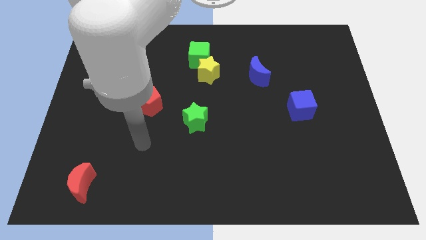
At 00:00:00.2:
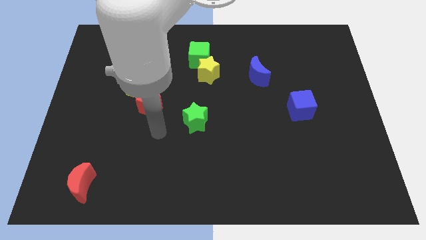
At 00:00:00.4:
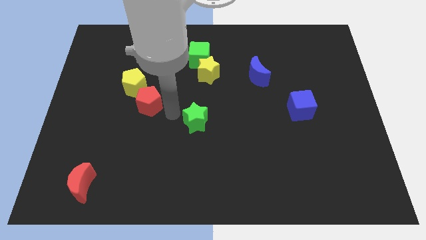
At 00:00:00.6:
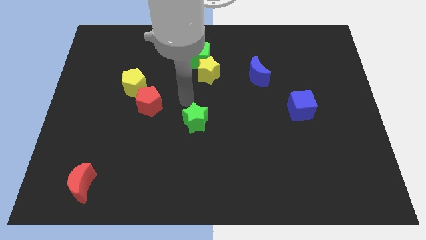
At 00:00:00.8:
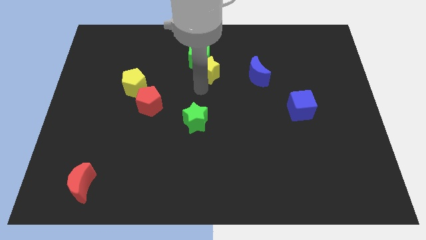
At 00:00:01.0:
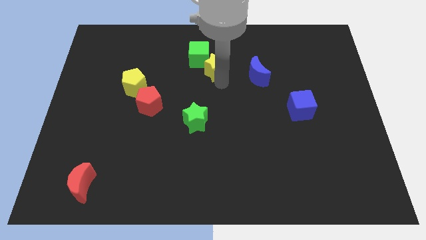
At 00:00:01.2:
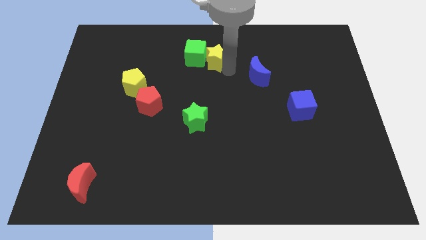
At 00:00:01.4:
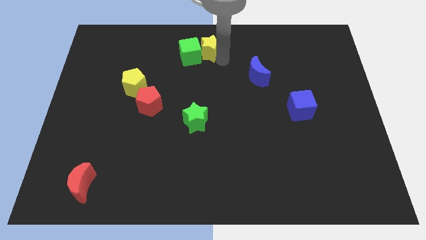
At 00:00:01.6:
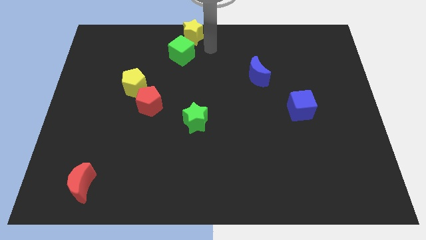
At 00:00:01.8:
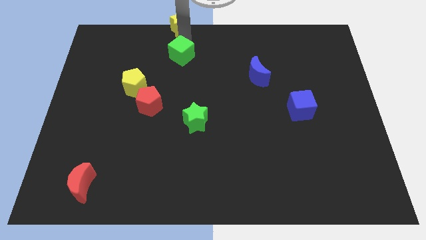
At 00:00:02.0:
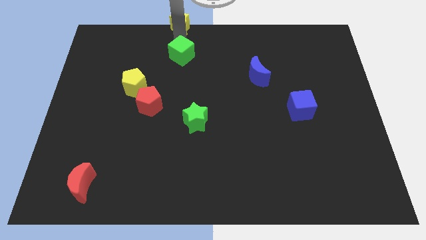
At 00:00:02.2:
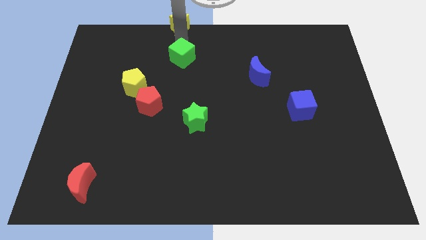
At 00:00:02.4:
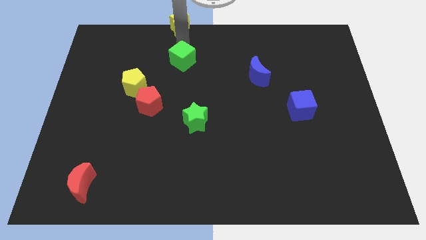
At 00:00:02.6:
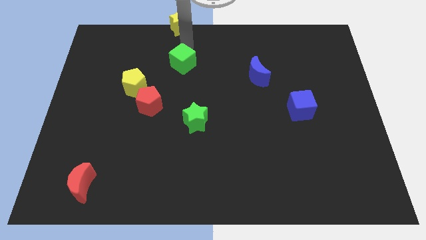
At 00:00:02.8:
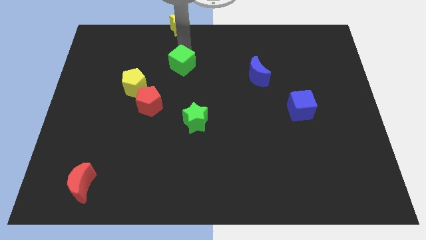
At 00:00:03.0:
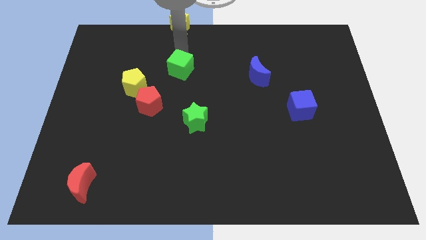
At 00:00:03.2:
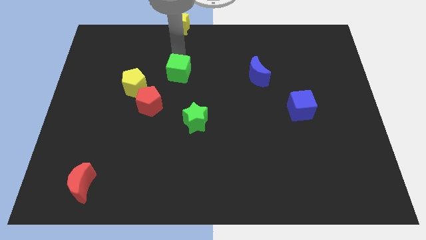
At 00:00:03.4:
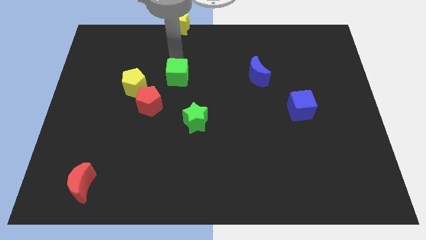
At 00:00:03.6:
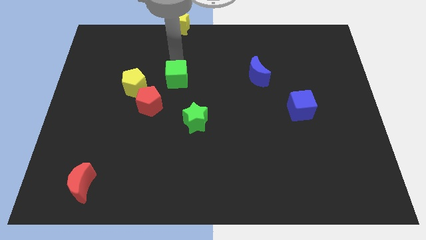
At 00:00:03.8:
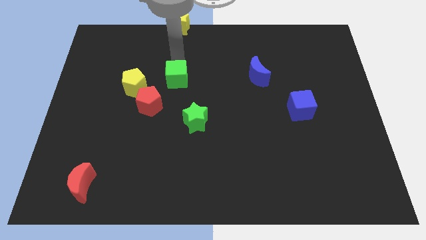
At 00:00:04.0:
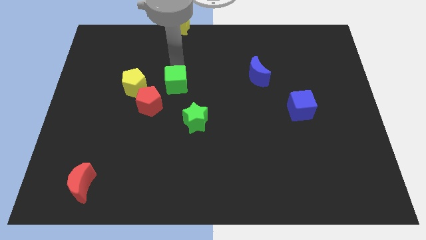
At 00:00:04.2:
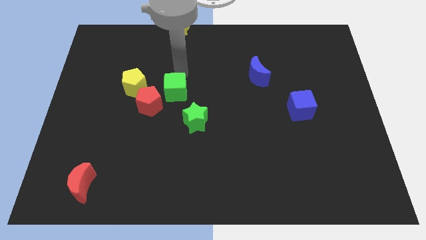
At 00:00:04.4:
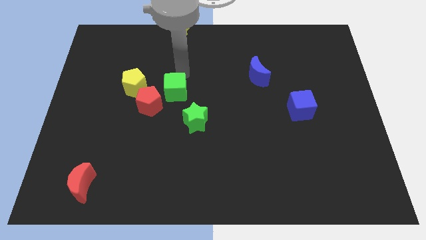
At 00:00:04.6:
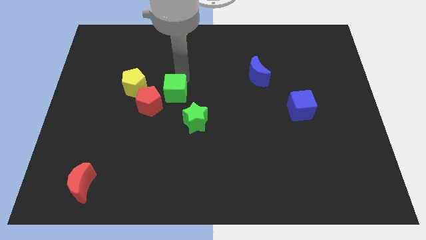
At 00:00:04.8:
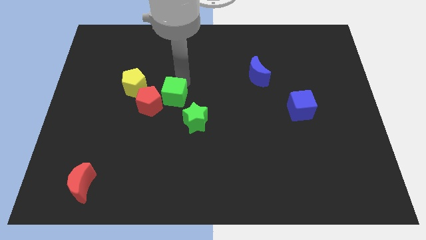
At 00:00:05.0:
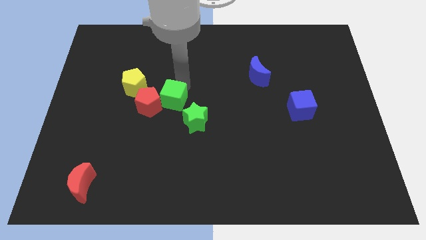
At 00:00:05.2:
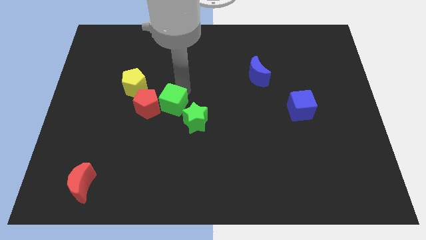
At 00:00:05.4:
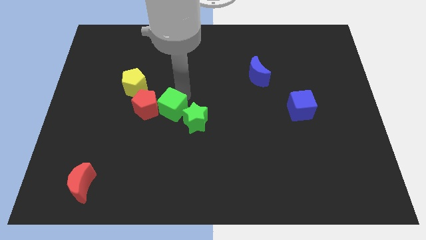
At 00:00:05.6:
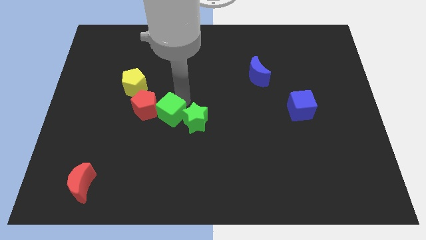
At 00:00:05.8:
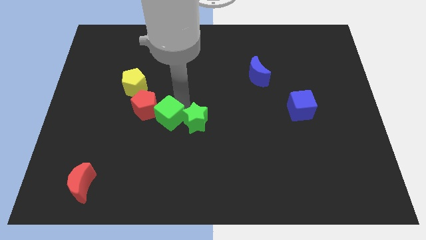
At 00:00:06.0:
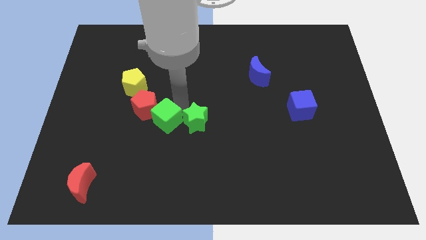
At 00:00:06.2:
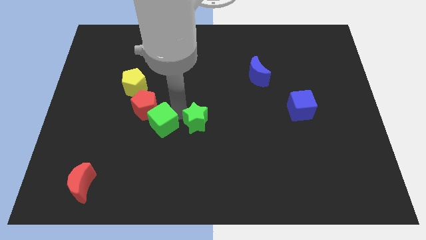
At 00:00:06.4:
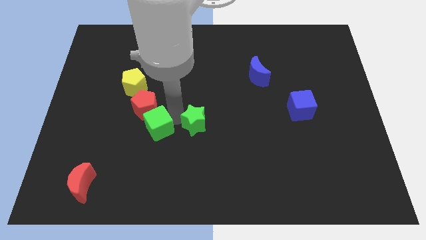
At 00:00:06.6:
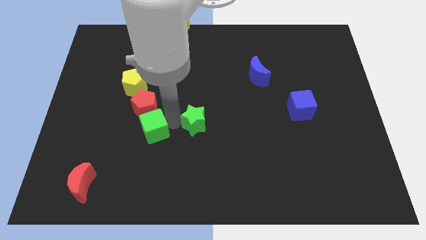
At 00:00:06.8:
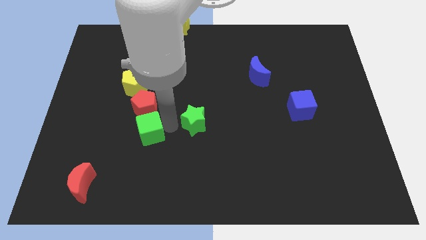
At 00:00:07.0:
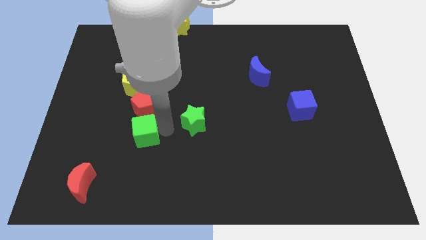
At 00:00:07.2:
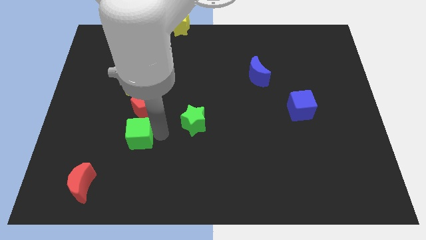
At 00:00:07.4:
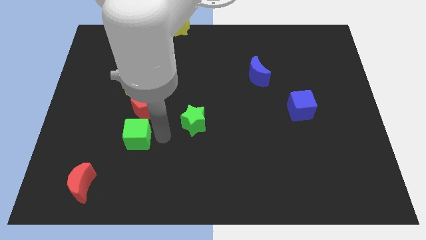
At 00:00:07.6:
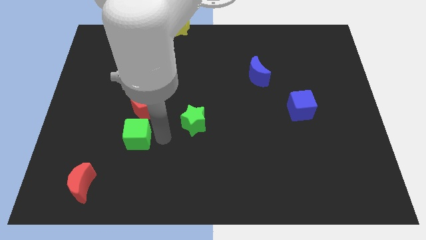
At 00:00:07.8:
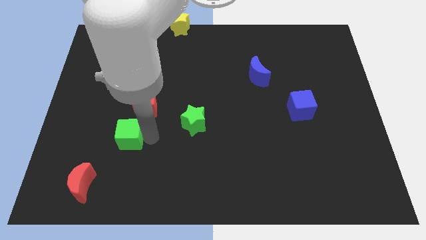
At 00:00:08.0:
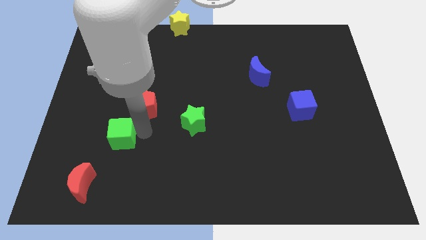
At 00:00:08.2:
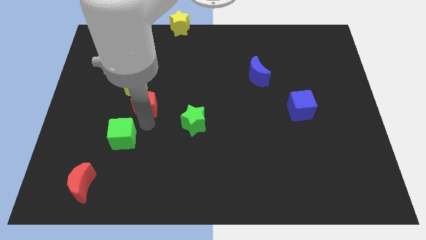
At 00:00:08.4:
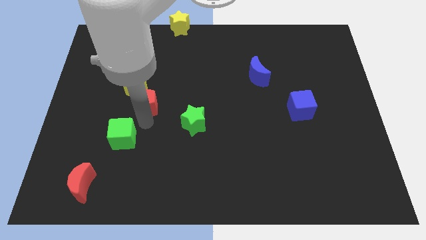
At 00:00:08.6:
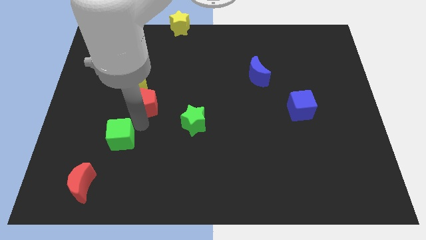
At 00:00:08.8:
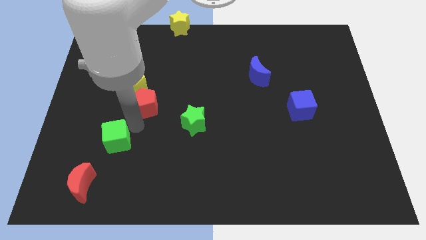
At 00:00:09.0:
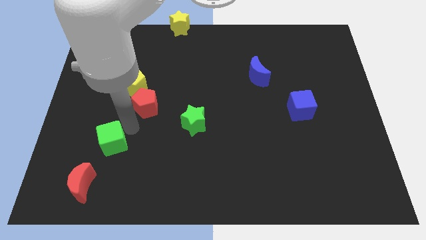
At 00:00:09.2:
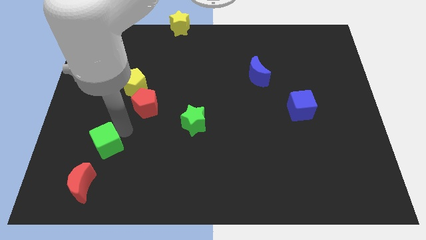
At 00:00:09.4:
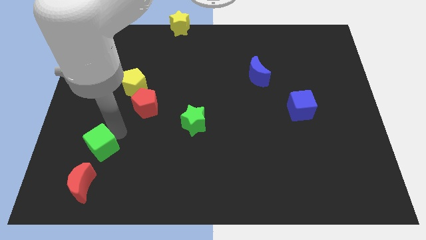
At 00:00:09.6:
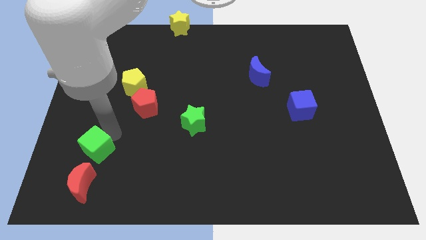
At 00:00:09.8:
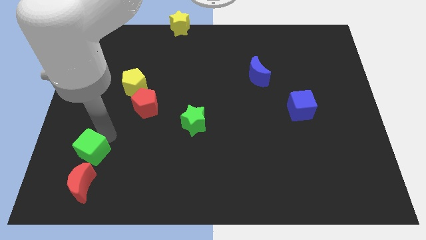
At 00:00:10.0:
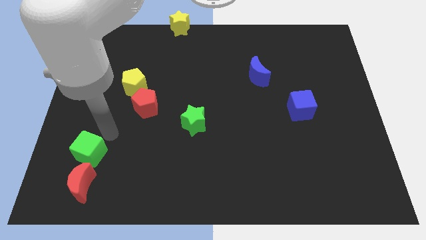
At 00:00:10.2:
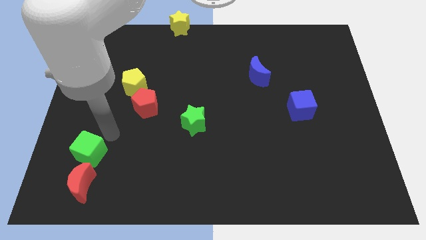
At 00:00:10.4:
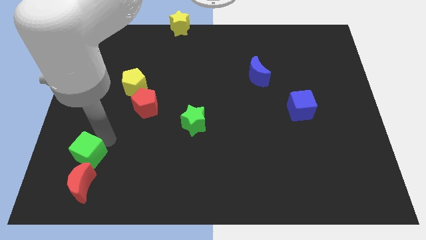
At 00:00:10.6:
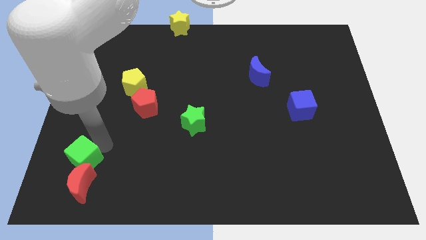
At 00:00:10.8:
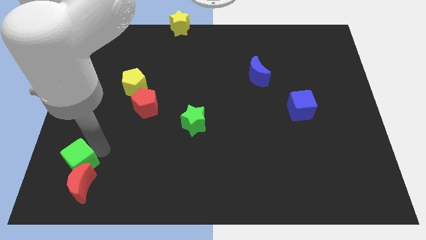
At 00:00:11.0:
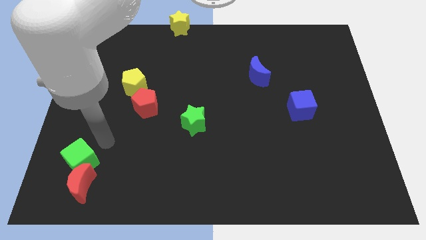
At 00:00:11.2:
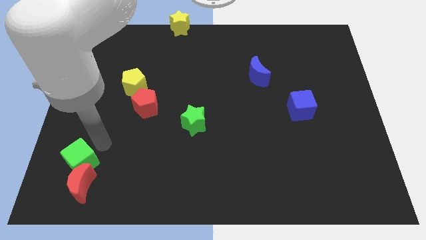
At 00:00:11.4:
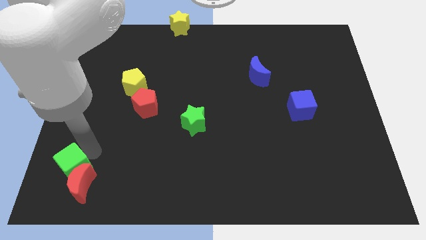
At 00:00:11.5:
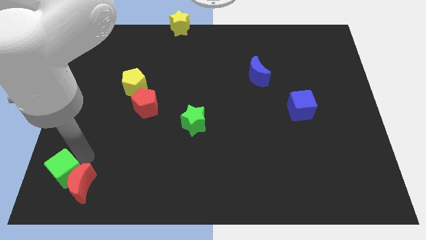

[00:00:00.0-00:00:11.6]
put the green cube to the bottom left
